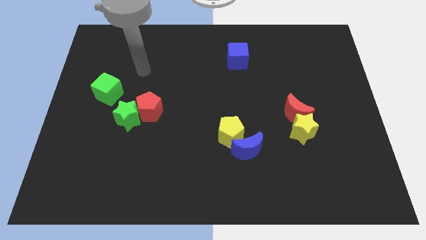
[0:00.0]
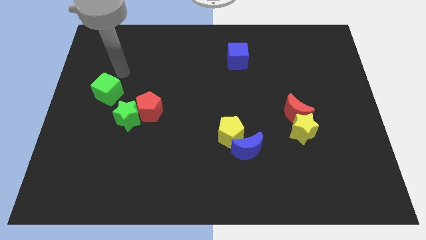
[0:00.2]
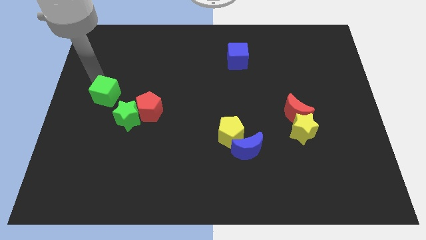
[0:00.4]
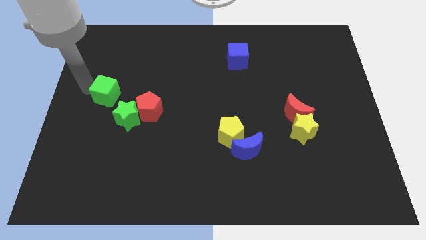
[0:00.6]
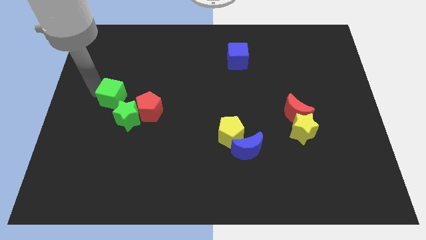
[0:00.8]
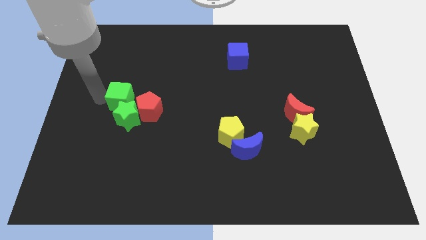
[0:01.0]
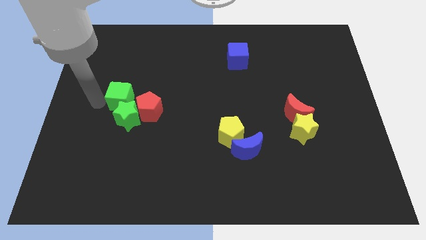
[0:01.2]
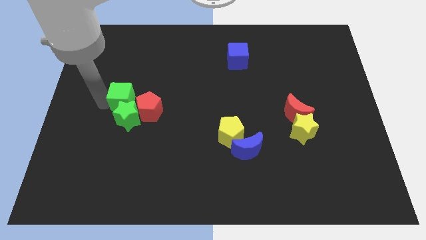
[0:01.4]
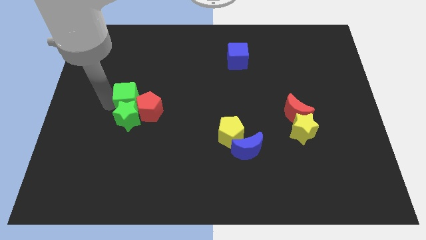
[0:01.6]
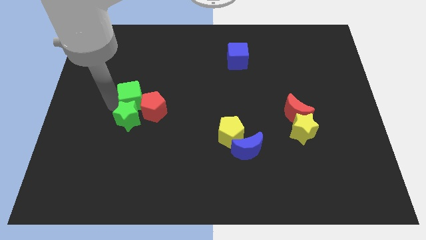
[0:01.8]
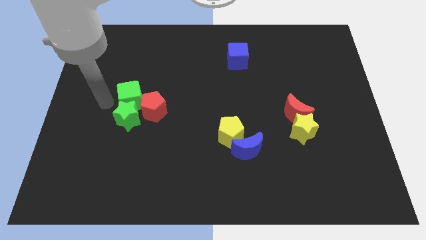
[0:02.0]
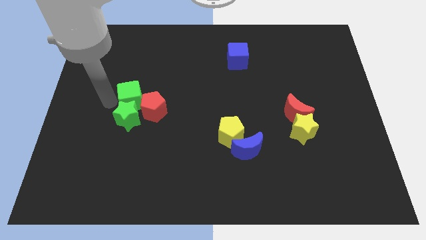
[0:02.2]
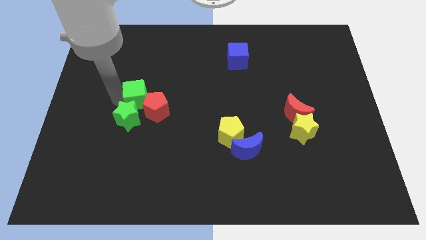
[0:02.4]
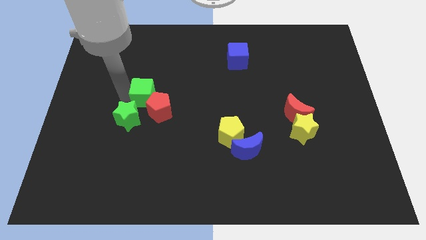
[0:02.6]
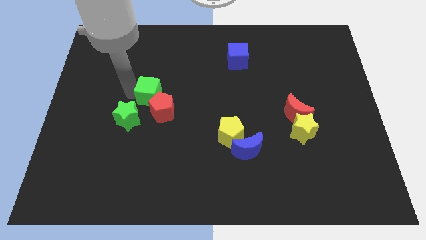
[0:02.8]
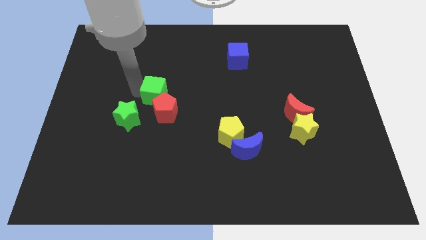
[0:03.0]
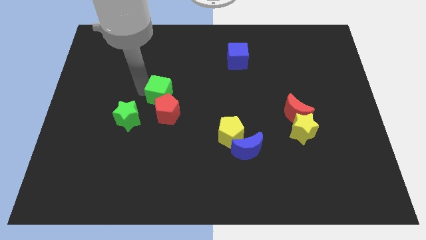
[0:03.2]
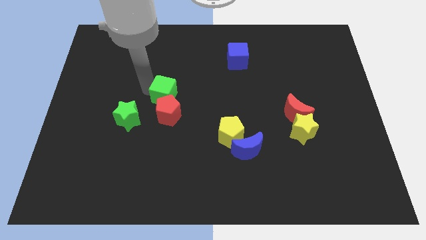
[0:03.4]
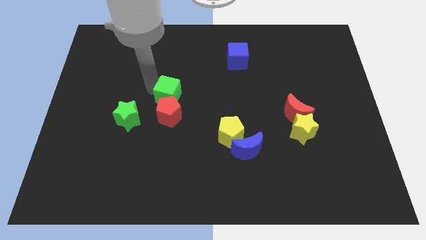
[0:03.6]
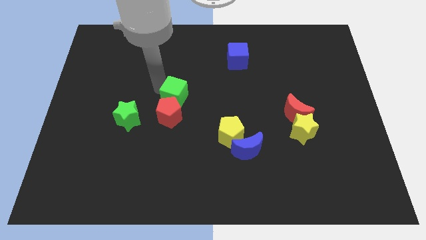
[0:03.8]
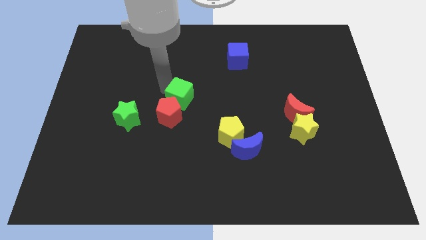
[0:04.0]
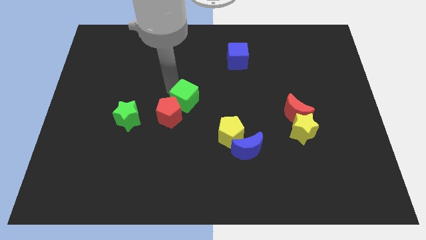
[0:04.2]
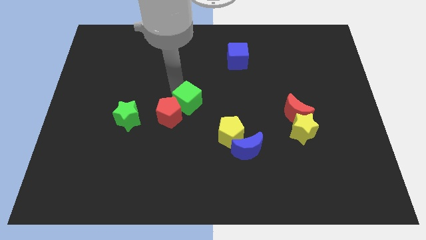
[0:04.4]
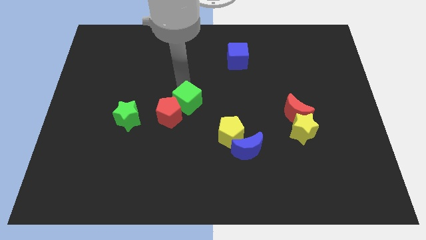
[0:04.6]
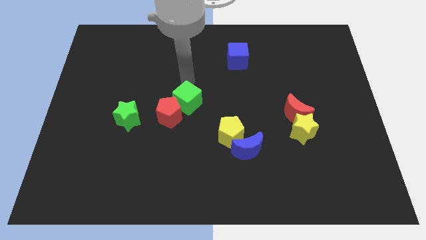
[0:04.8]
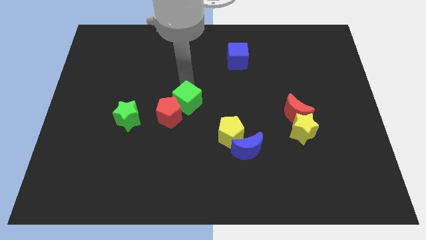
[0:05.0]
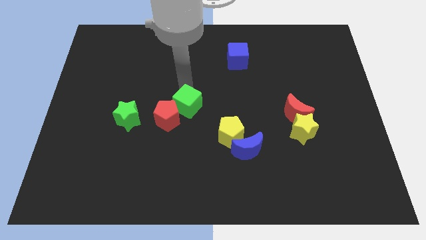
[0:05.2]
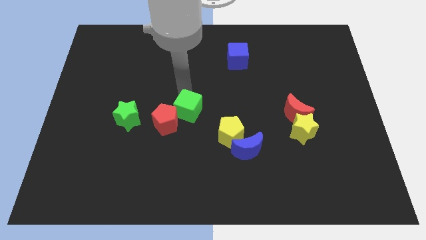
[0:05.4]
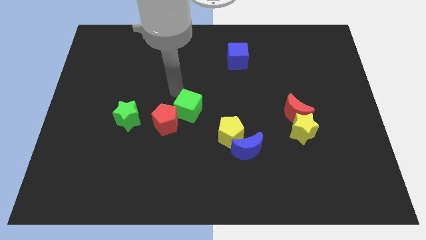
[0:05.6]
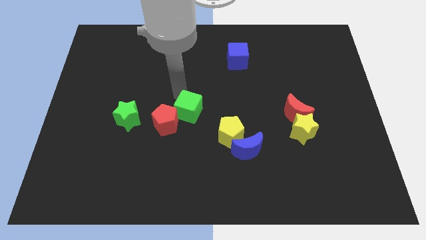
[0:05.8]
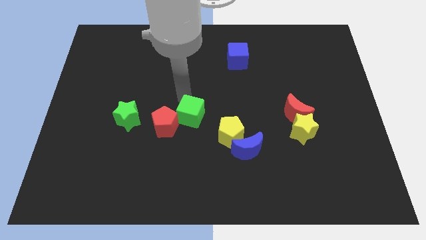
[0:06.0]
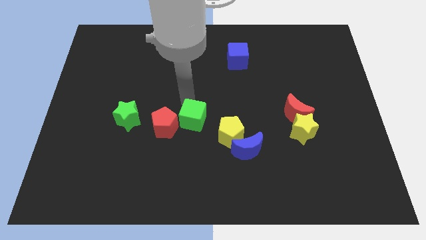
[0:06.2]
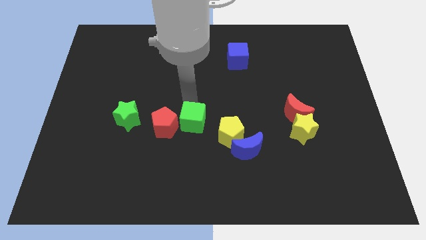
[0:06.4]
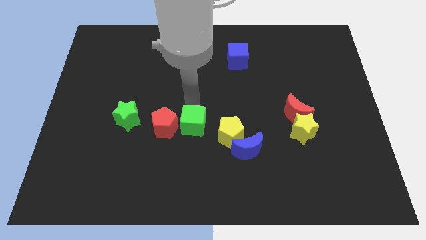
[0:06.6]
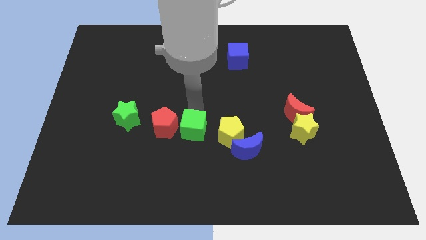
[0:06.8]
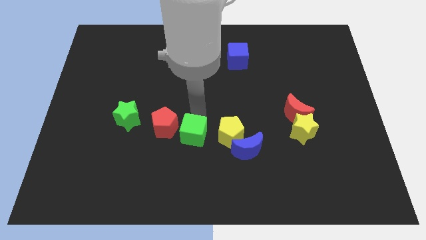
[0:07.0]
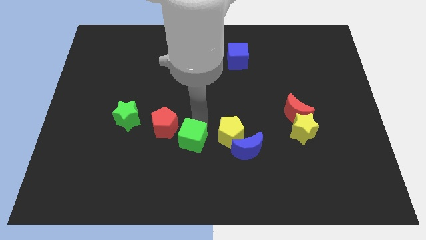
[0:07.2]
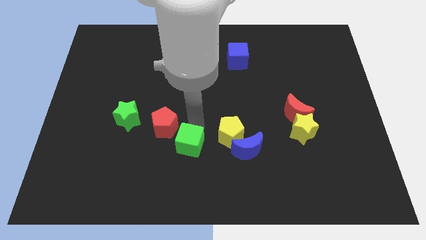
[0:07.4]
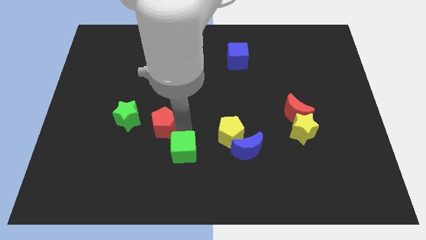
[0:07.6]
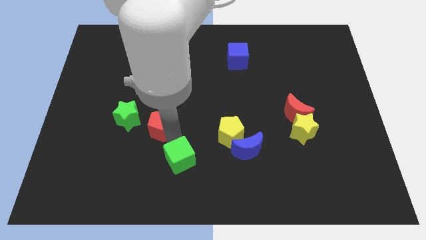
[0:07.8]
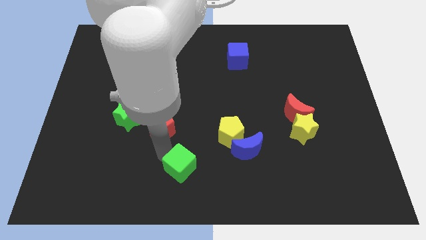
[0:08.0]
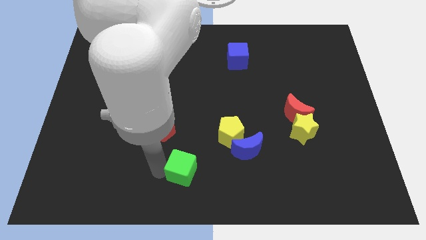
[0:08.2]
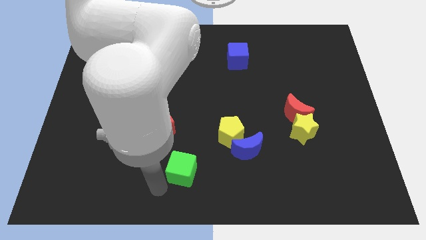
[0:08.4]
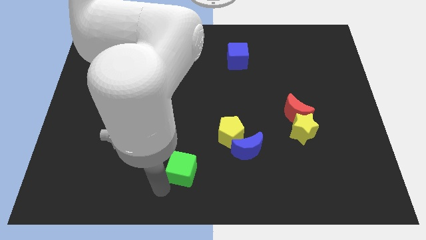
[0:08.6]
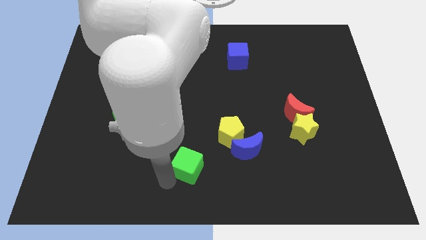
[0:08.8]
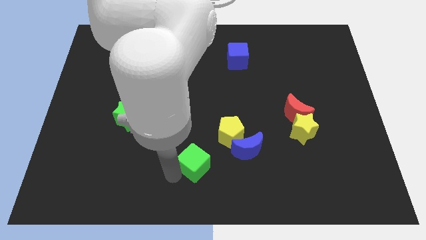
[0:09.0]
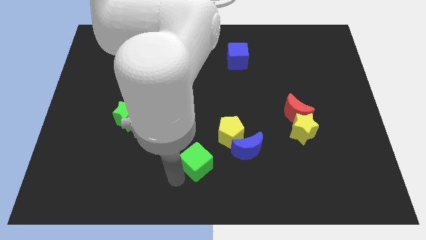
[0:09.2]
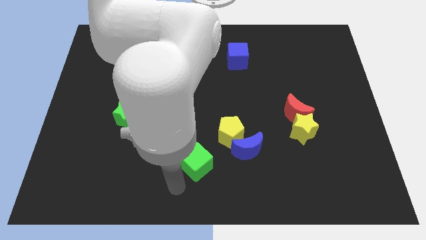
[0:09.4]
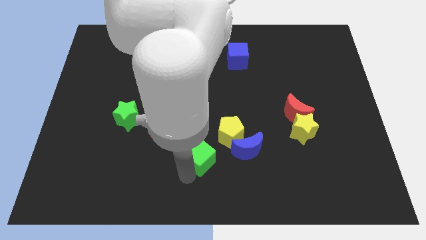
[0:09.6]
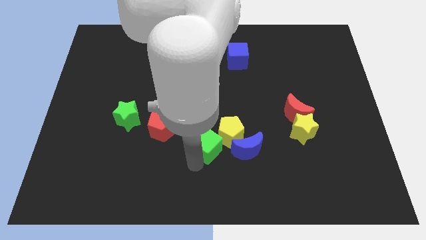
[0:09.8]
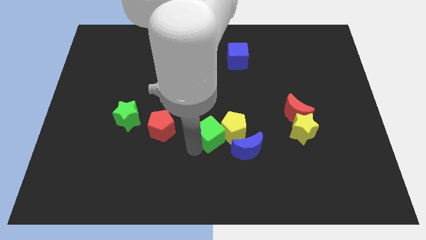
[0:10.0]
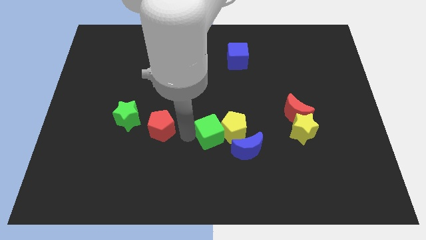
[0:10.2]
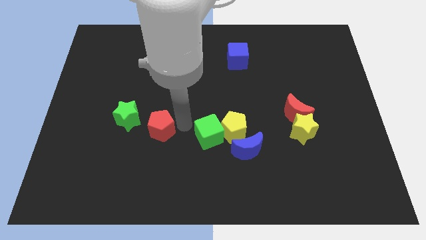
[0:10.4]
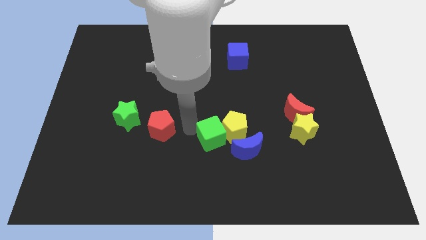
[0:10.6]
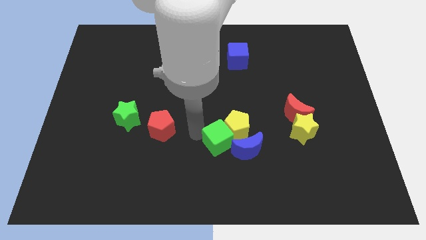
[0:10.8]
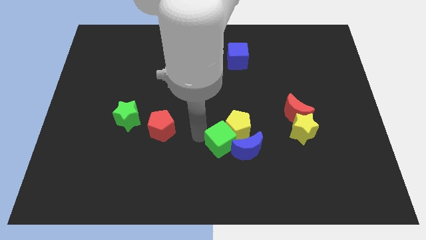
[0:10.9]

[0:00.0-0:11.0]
move the green cube to the blue moon

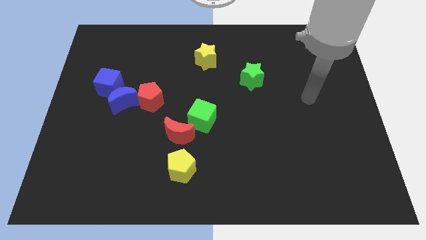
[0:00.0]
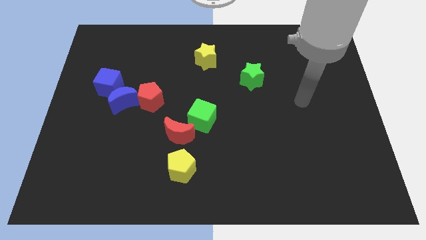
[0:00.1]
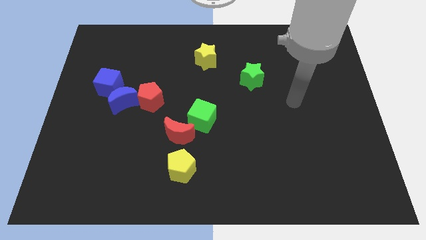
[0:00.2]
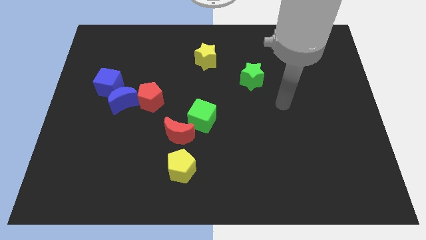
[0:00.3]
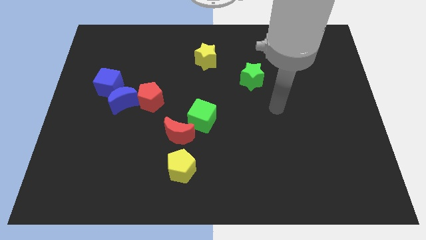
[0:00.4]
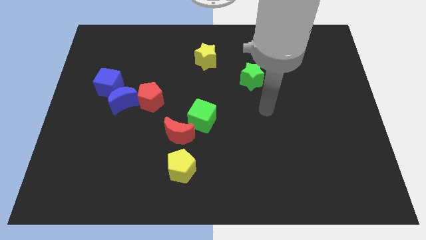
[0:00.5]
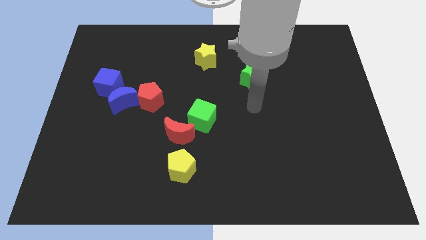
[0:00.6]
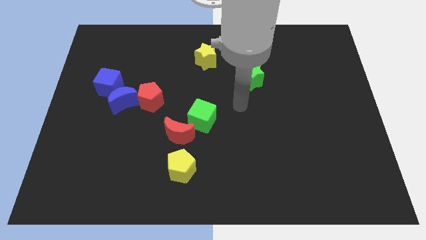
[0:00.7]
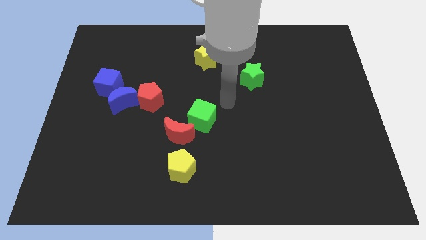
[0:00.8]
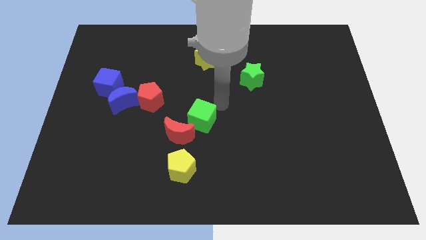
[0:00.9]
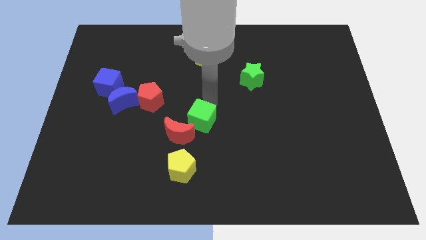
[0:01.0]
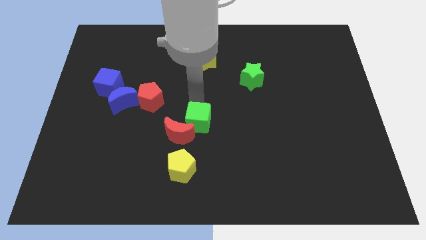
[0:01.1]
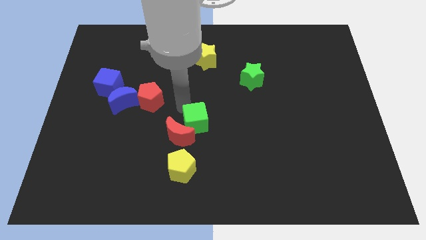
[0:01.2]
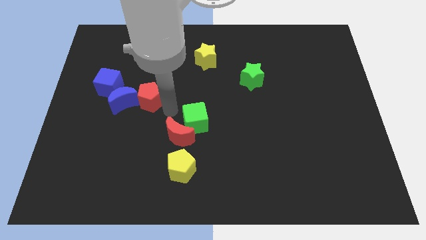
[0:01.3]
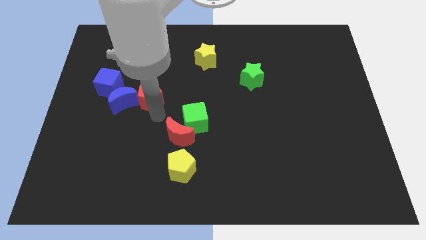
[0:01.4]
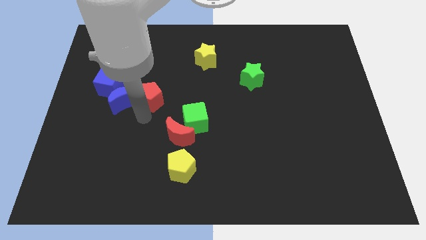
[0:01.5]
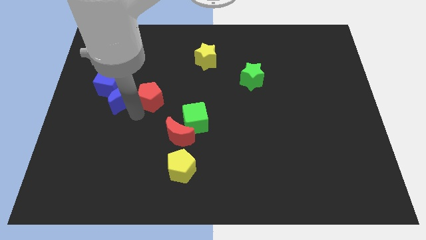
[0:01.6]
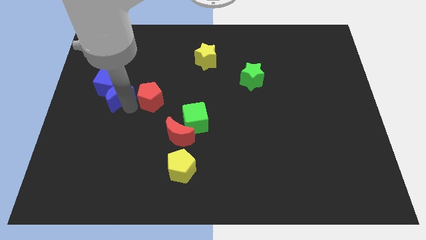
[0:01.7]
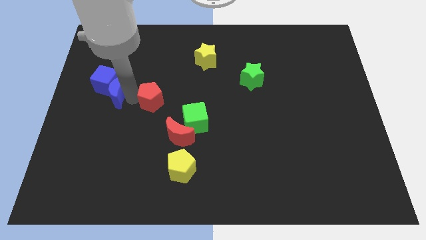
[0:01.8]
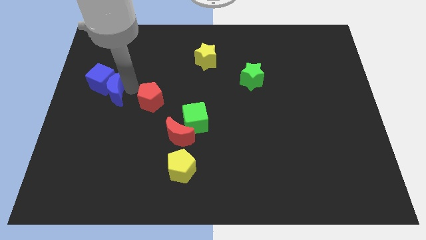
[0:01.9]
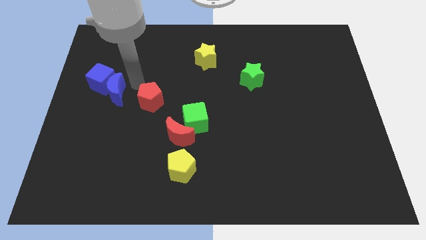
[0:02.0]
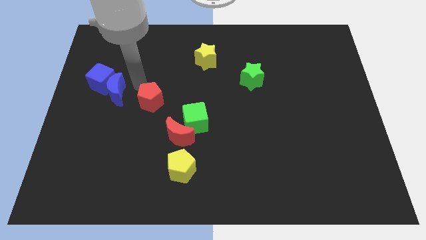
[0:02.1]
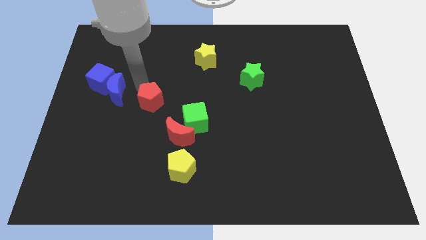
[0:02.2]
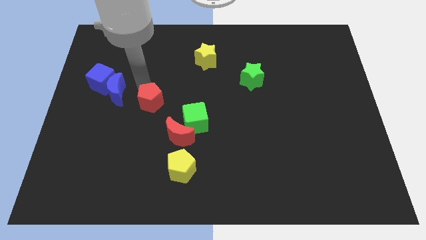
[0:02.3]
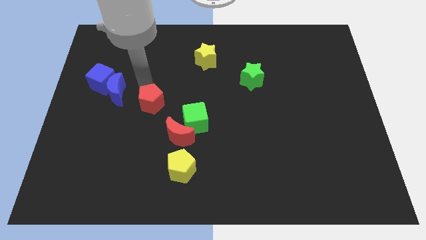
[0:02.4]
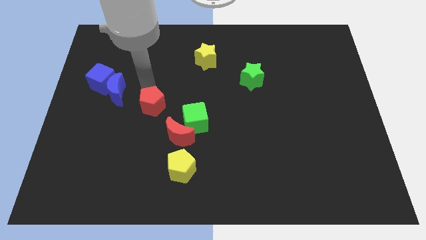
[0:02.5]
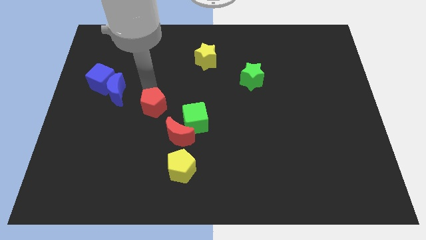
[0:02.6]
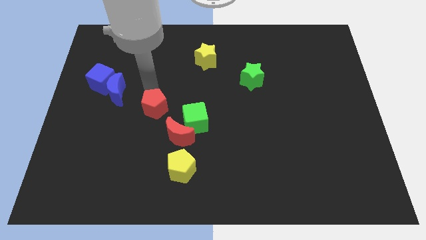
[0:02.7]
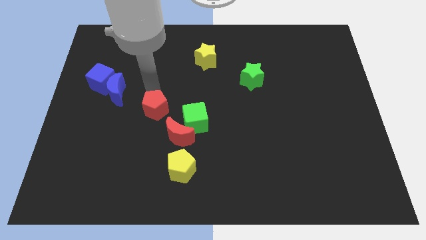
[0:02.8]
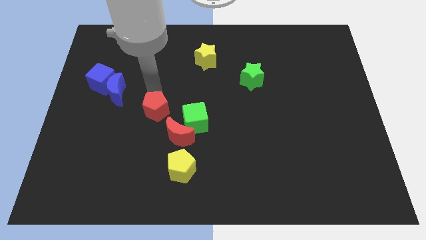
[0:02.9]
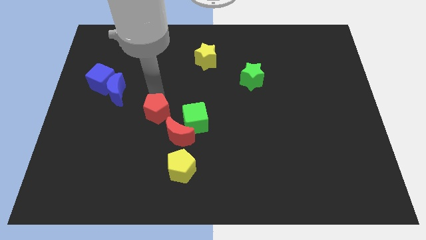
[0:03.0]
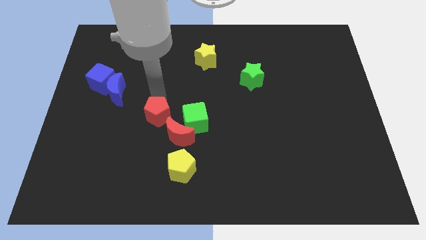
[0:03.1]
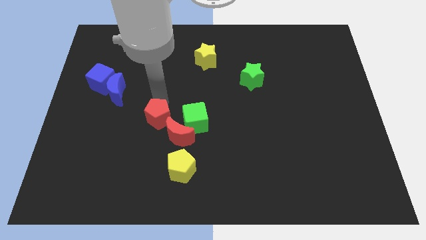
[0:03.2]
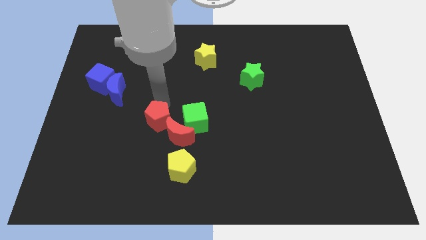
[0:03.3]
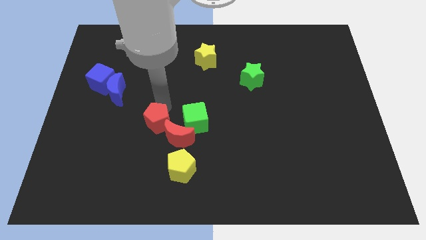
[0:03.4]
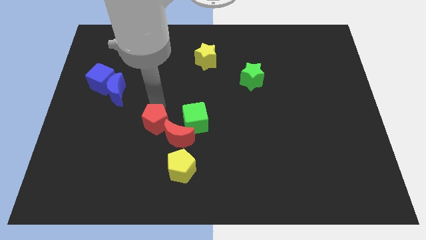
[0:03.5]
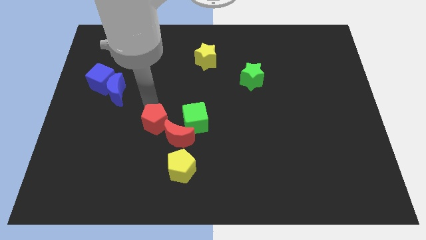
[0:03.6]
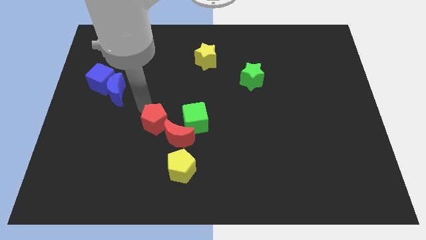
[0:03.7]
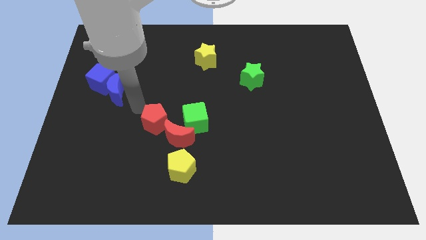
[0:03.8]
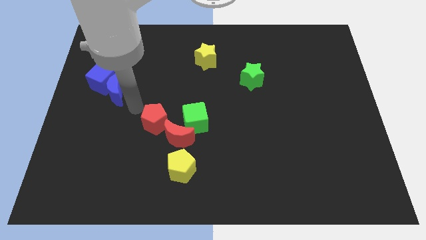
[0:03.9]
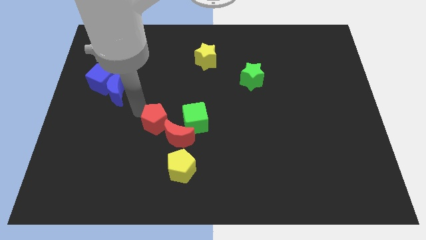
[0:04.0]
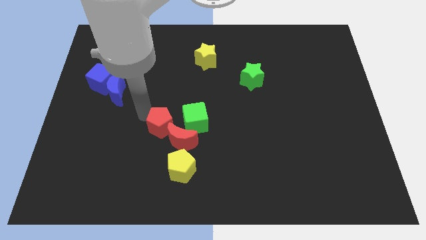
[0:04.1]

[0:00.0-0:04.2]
put the red pentagon next to the red moon
